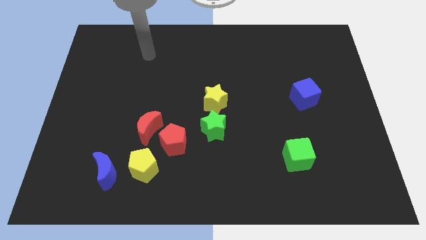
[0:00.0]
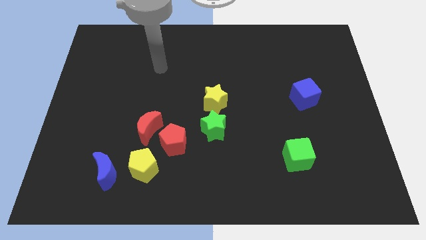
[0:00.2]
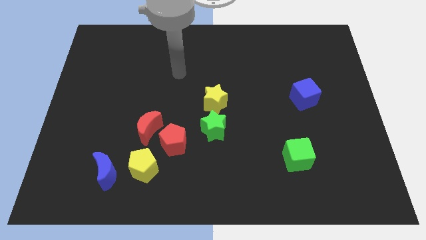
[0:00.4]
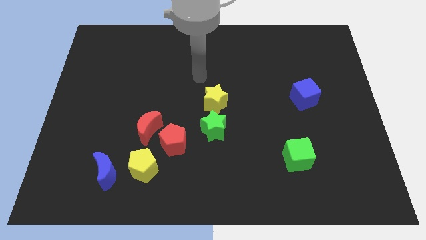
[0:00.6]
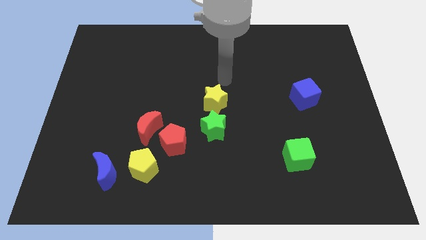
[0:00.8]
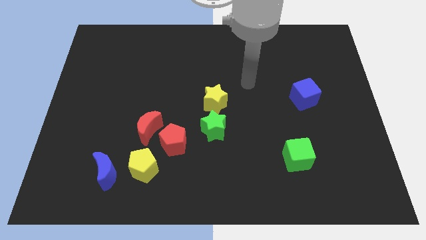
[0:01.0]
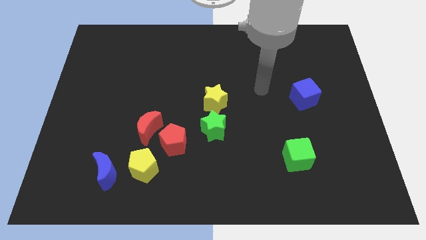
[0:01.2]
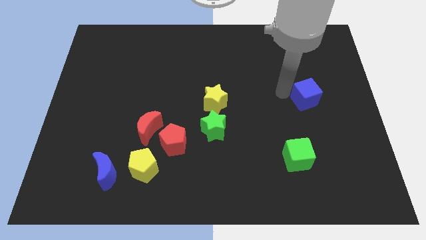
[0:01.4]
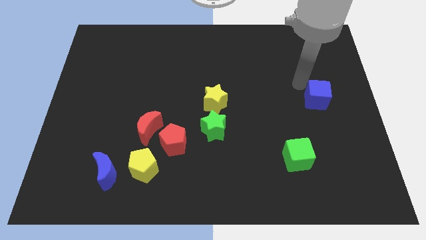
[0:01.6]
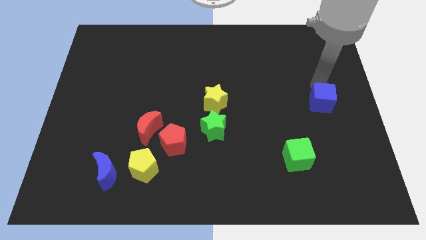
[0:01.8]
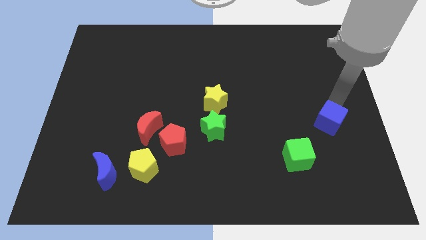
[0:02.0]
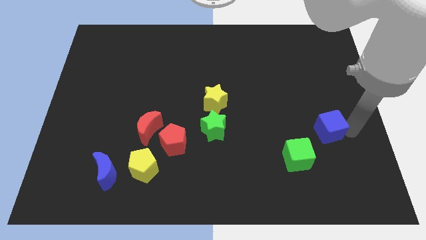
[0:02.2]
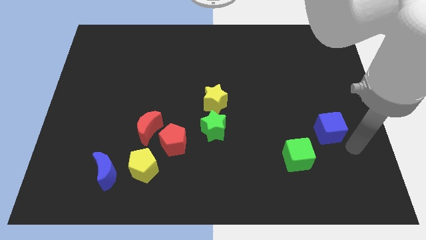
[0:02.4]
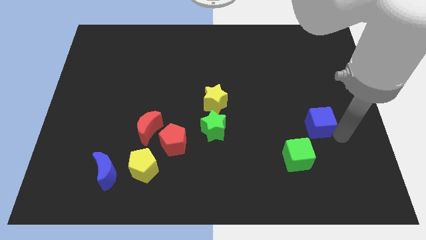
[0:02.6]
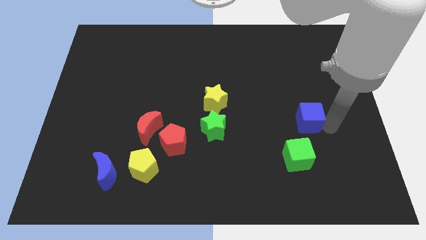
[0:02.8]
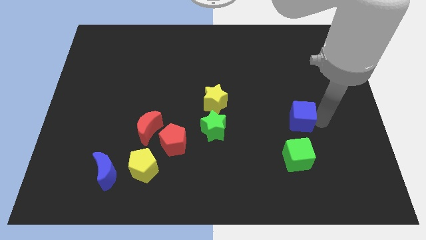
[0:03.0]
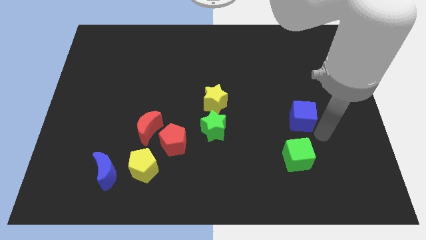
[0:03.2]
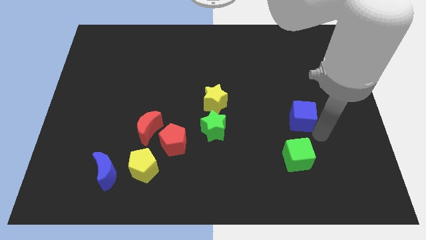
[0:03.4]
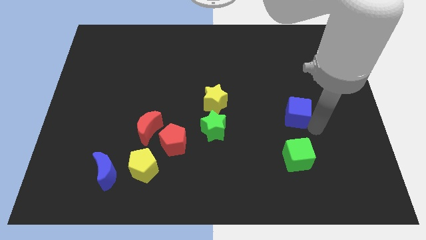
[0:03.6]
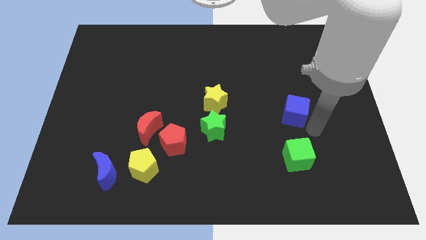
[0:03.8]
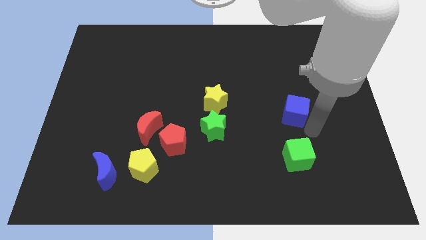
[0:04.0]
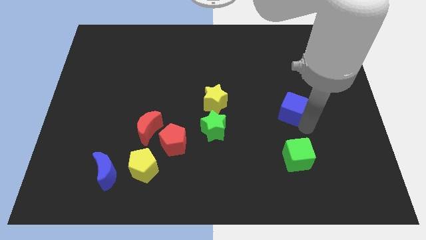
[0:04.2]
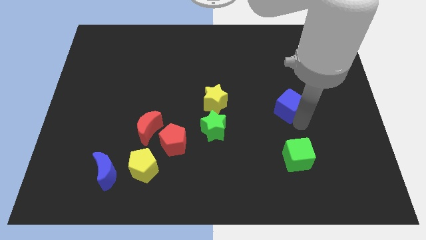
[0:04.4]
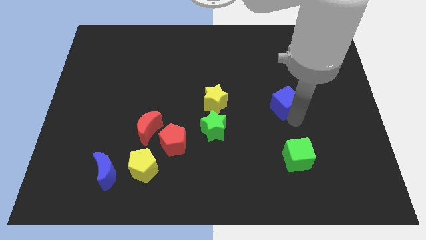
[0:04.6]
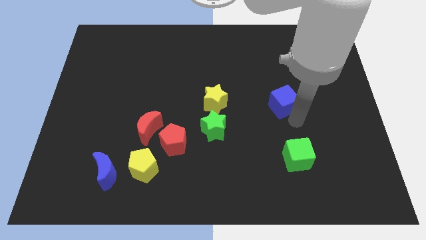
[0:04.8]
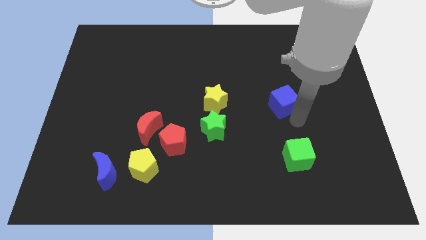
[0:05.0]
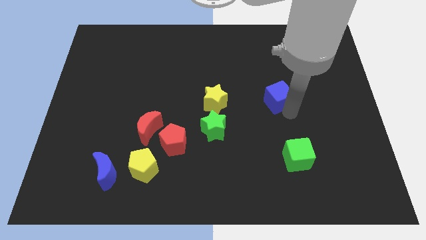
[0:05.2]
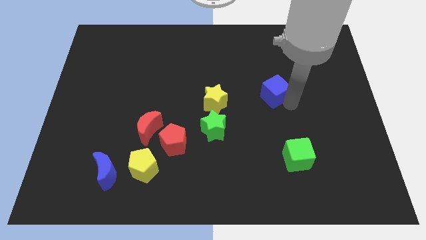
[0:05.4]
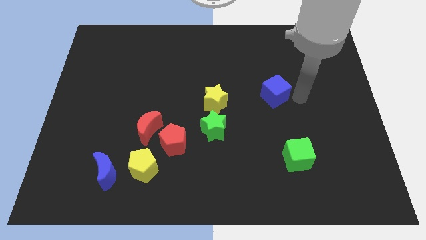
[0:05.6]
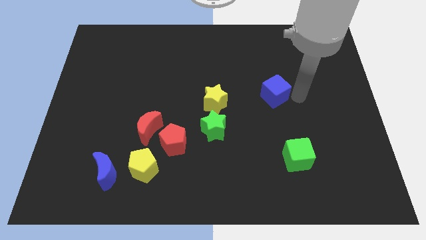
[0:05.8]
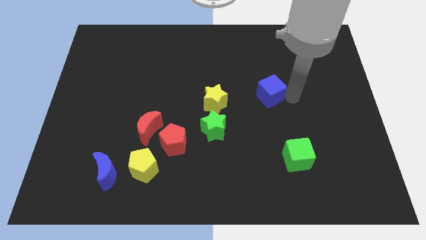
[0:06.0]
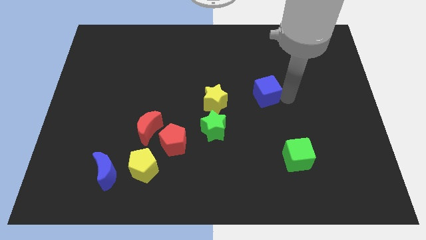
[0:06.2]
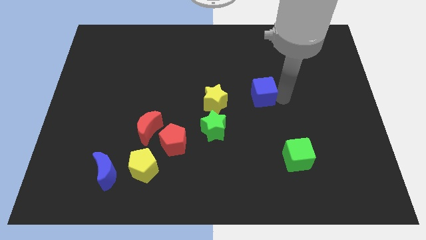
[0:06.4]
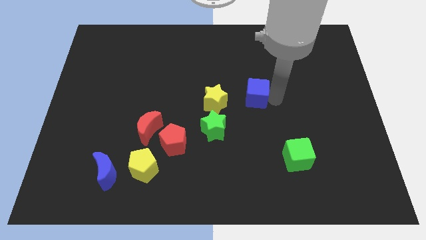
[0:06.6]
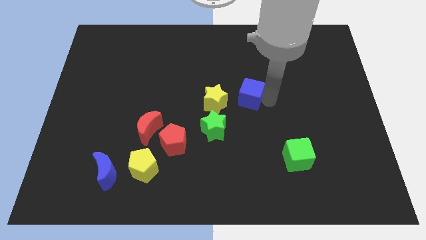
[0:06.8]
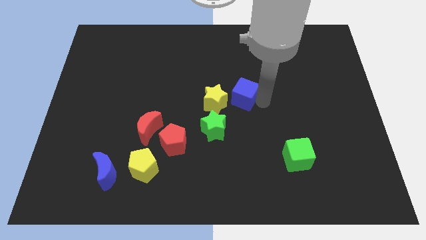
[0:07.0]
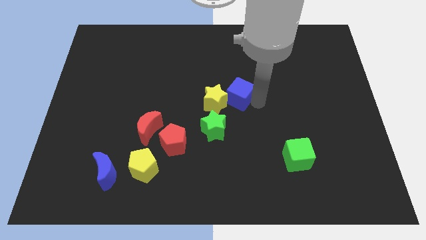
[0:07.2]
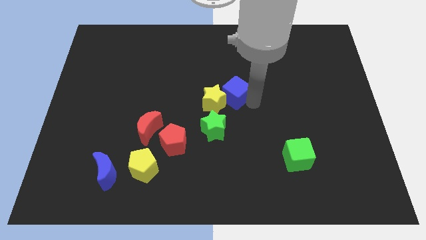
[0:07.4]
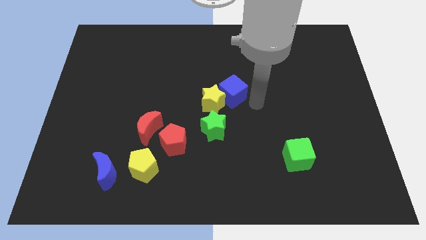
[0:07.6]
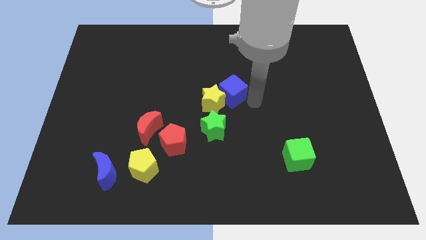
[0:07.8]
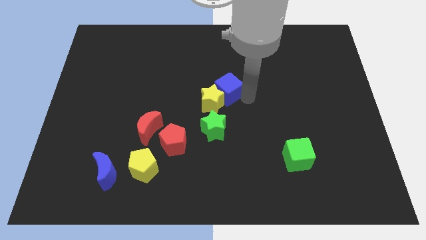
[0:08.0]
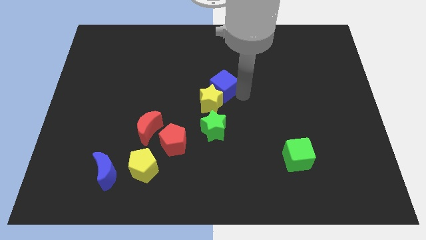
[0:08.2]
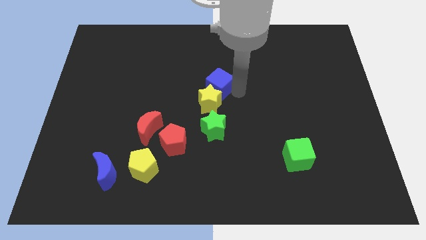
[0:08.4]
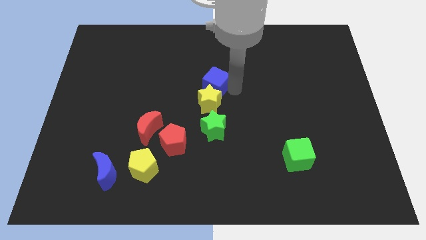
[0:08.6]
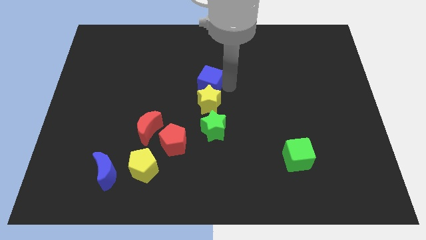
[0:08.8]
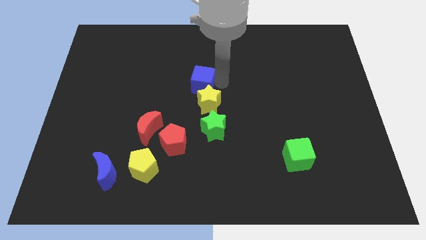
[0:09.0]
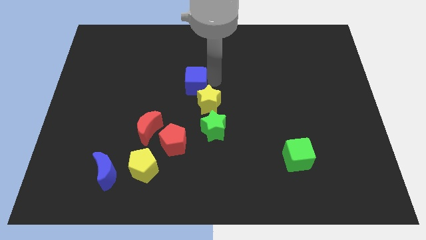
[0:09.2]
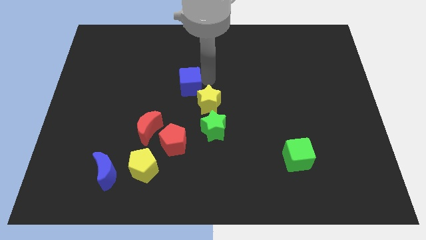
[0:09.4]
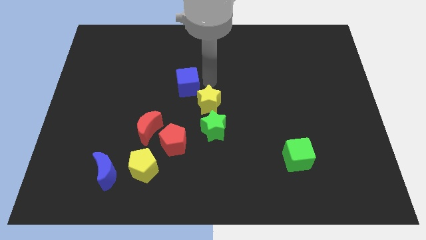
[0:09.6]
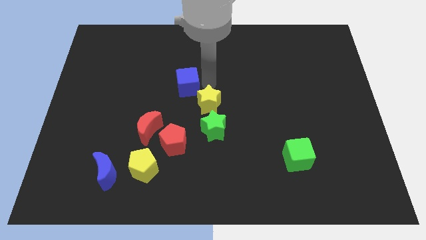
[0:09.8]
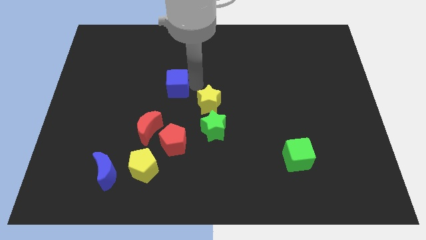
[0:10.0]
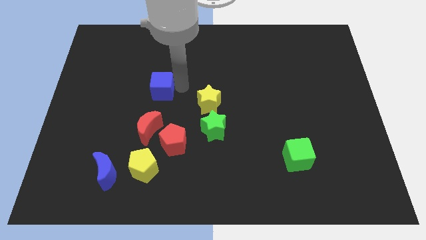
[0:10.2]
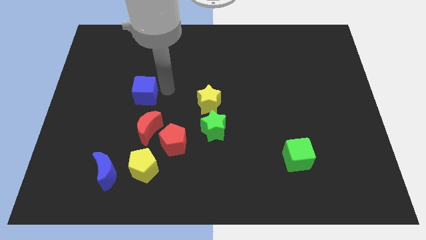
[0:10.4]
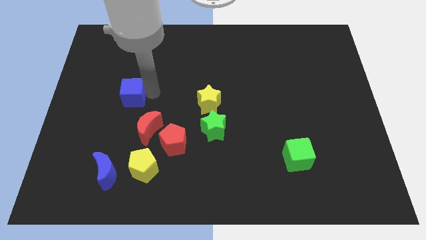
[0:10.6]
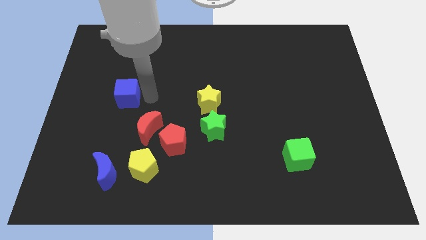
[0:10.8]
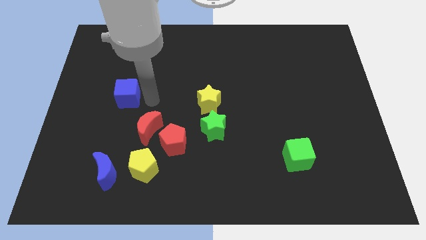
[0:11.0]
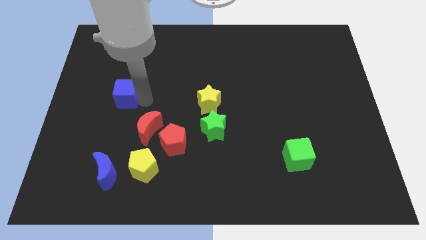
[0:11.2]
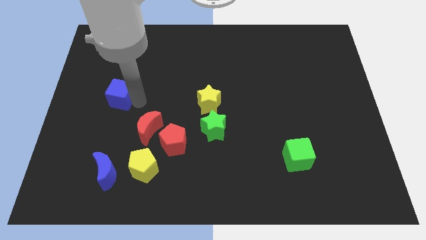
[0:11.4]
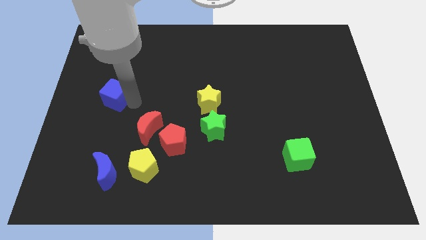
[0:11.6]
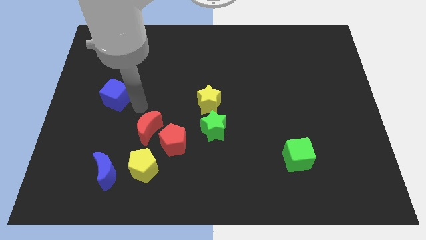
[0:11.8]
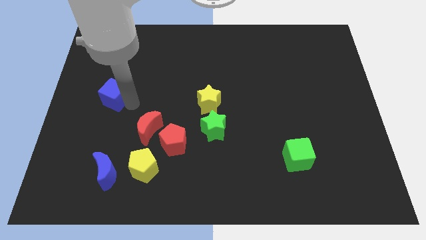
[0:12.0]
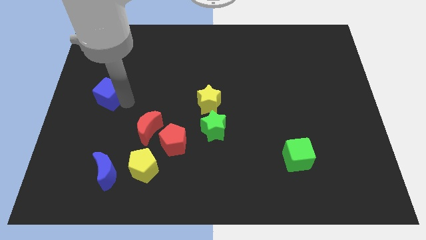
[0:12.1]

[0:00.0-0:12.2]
slide the blue cube to the center left

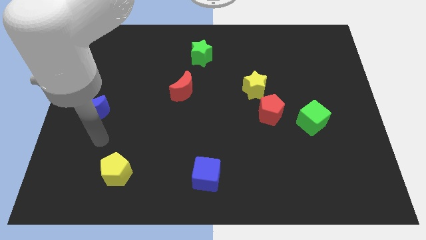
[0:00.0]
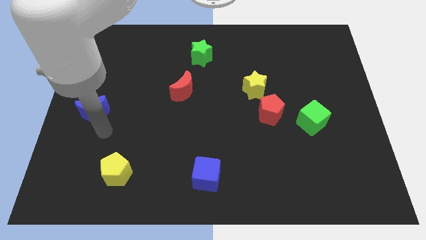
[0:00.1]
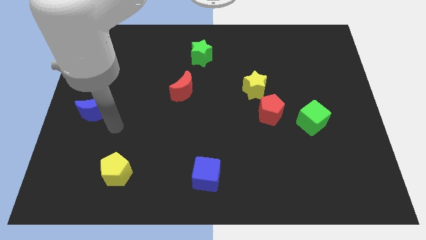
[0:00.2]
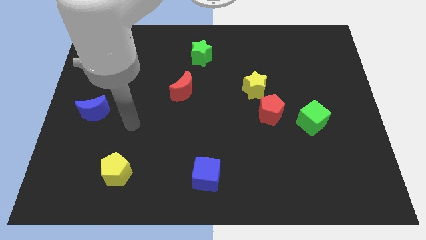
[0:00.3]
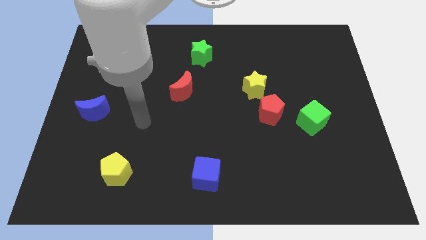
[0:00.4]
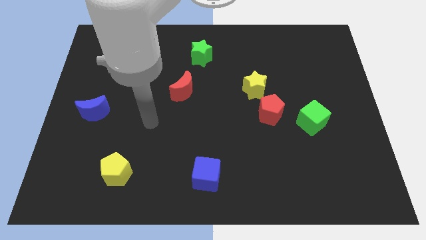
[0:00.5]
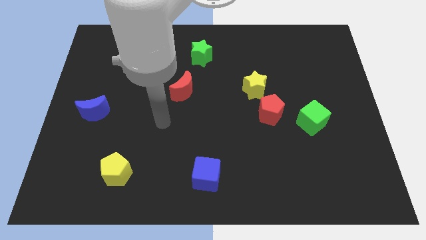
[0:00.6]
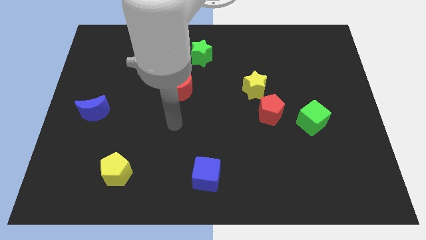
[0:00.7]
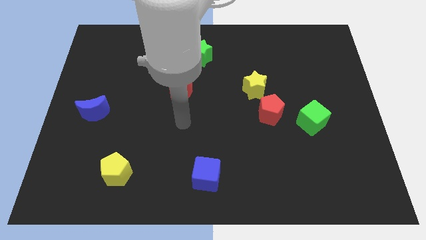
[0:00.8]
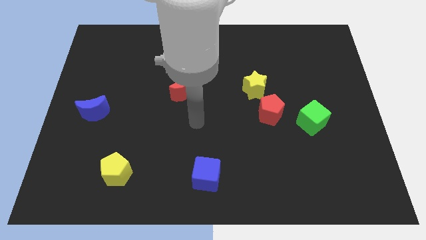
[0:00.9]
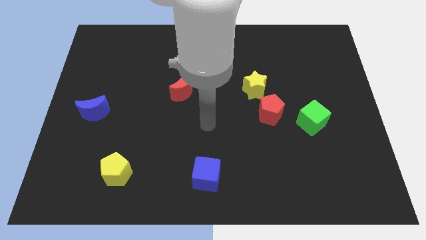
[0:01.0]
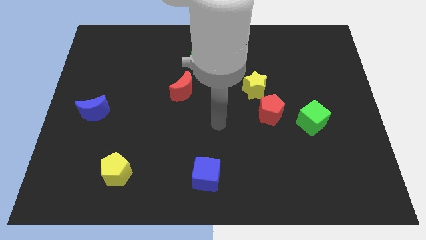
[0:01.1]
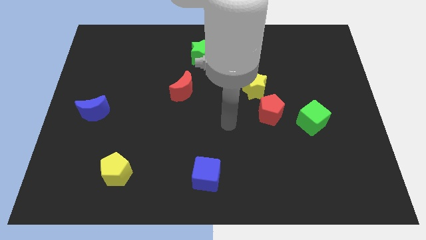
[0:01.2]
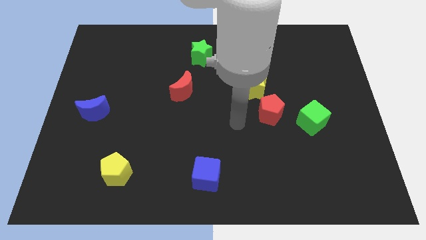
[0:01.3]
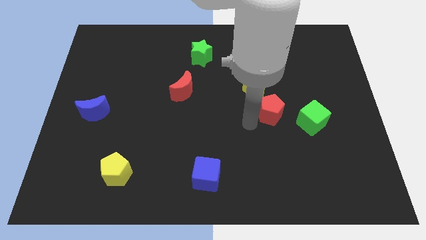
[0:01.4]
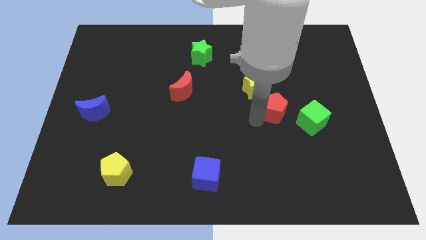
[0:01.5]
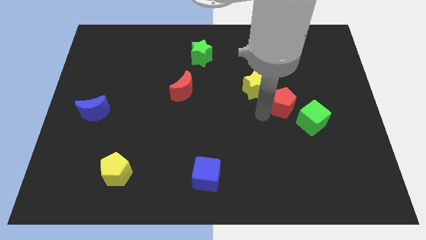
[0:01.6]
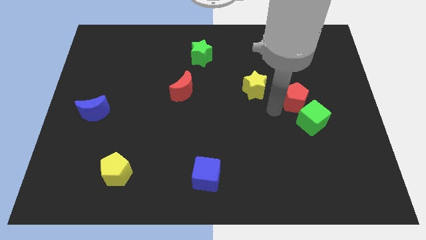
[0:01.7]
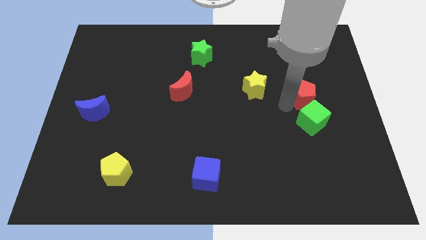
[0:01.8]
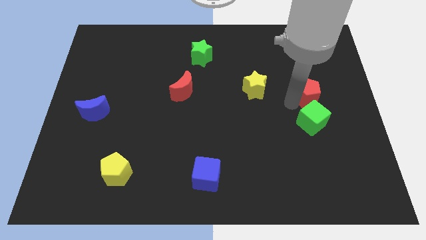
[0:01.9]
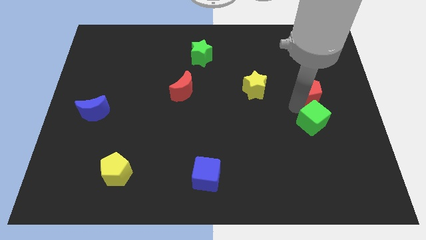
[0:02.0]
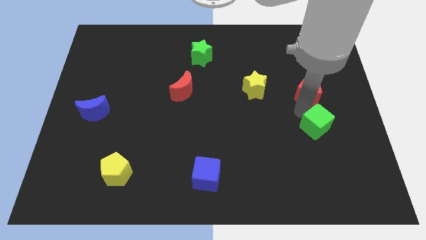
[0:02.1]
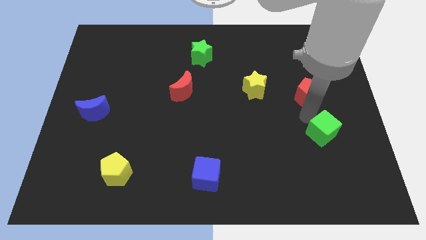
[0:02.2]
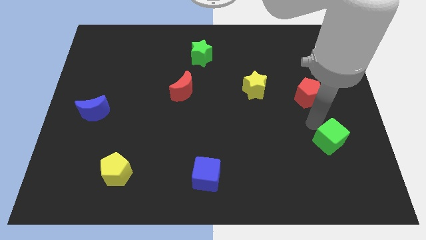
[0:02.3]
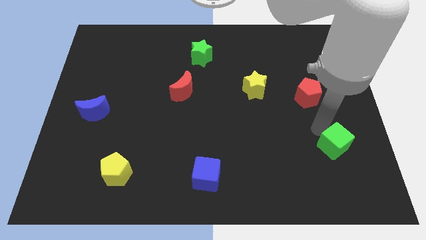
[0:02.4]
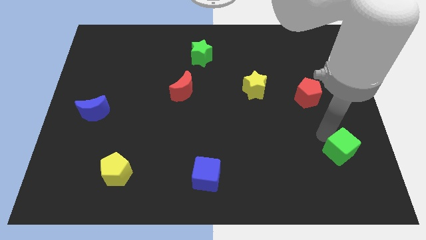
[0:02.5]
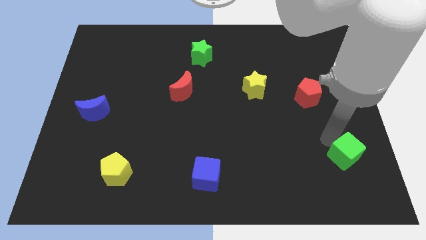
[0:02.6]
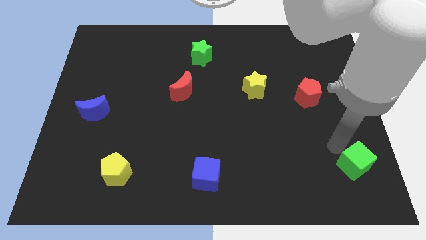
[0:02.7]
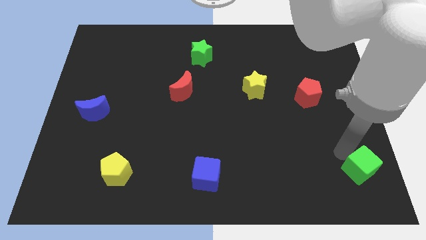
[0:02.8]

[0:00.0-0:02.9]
push the green cube to the lower right corner
